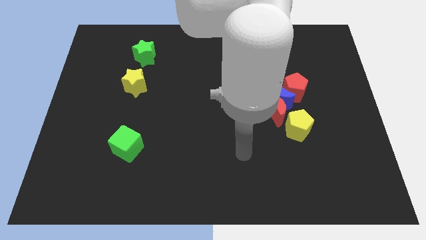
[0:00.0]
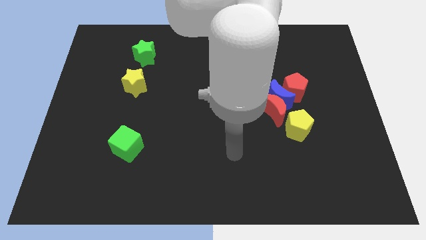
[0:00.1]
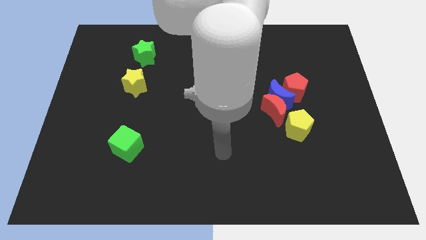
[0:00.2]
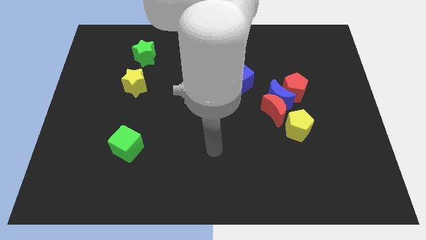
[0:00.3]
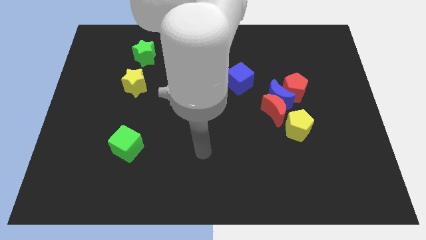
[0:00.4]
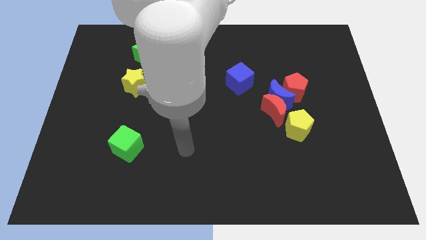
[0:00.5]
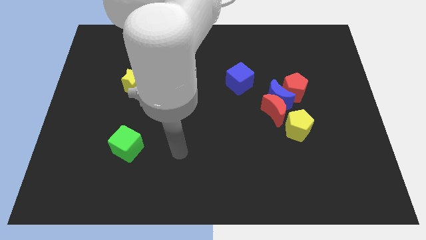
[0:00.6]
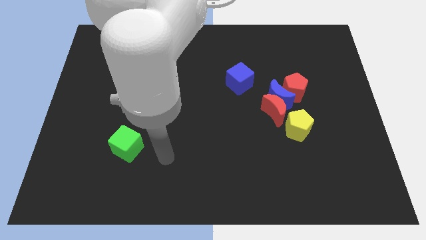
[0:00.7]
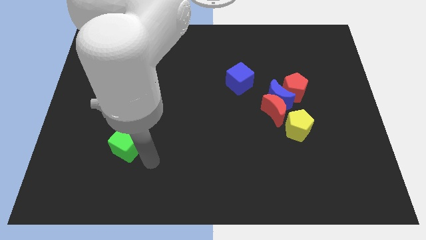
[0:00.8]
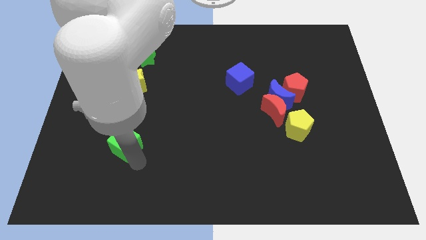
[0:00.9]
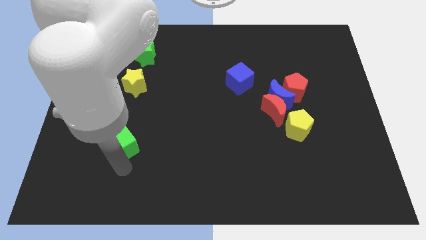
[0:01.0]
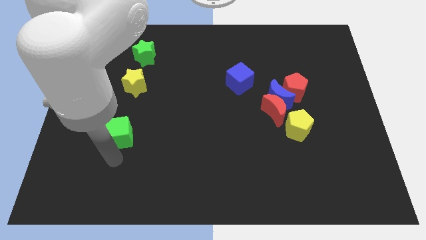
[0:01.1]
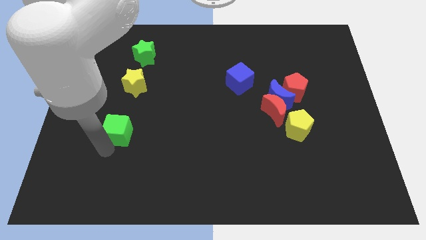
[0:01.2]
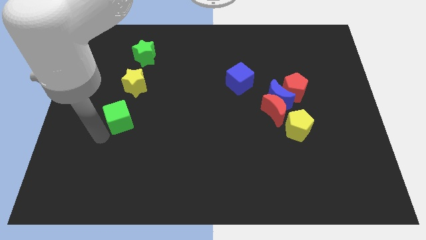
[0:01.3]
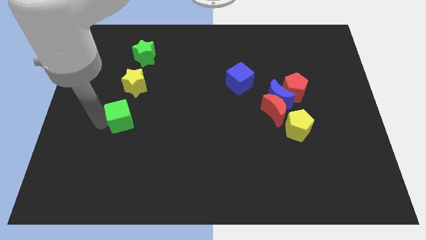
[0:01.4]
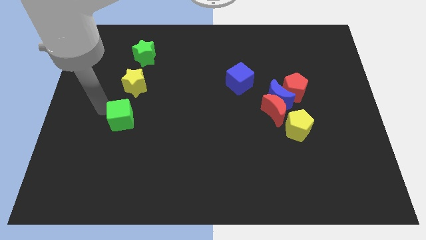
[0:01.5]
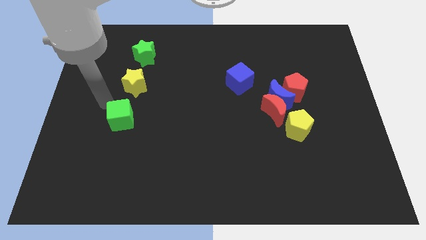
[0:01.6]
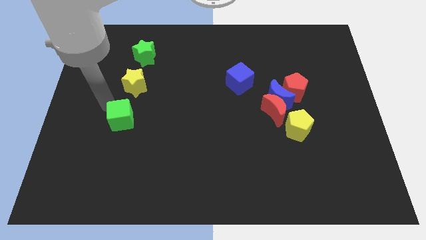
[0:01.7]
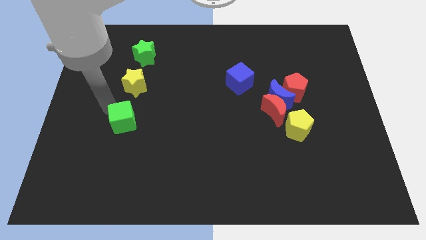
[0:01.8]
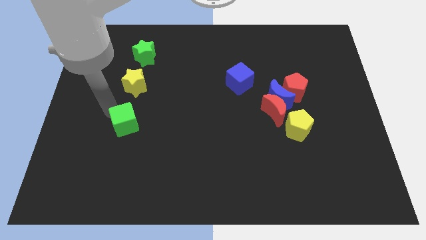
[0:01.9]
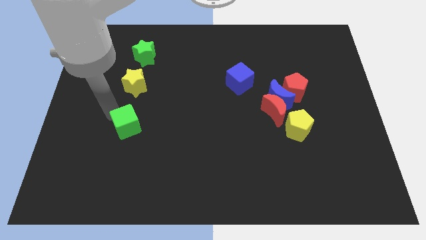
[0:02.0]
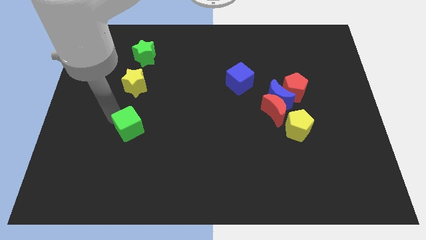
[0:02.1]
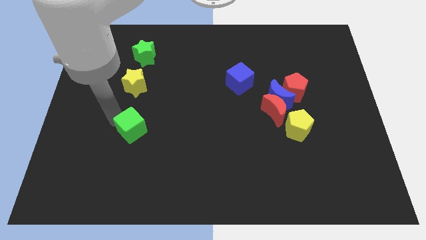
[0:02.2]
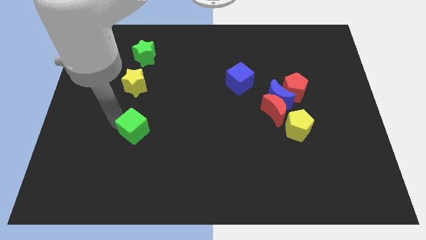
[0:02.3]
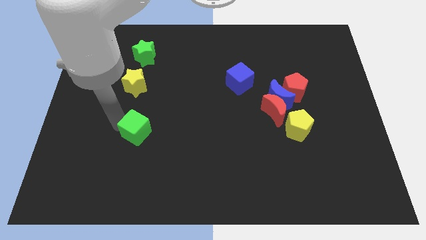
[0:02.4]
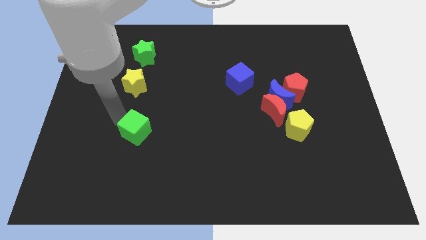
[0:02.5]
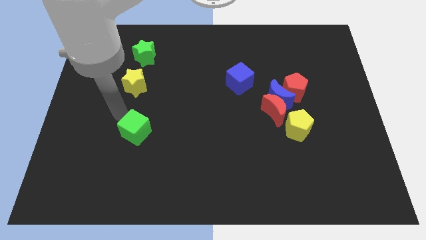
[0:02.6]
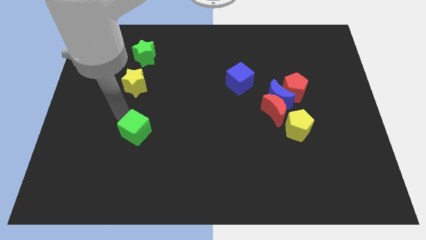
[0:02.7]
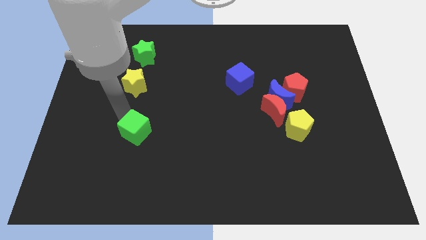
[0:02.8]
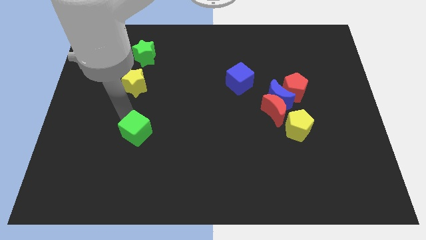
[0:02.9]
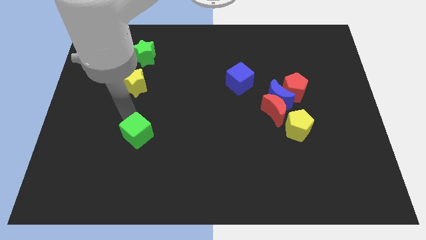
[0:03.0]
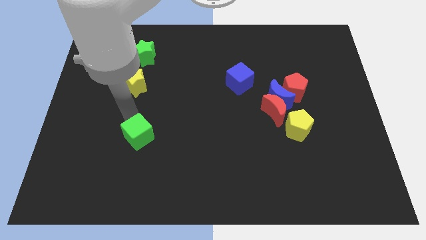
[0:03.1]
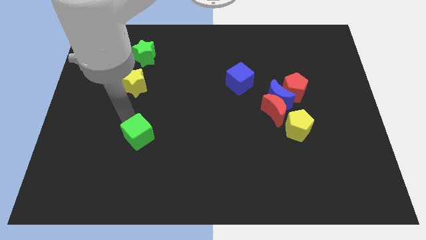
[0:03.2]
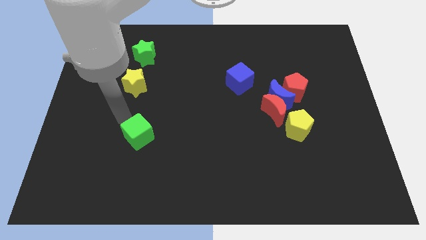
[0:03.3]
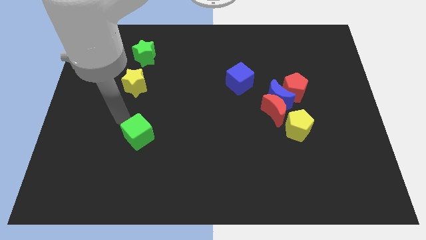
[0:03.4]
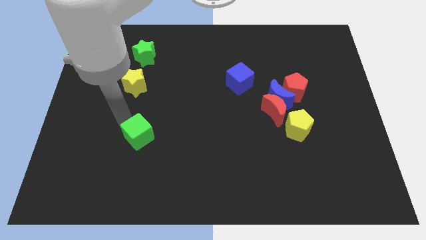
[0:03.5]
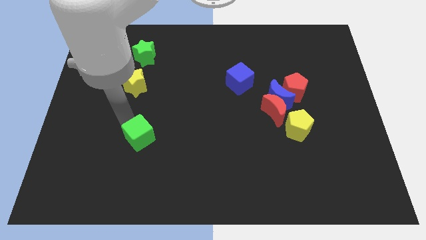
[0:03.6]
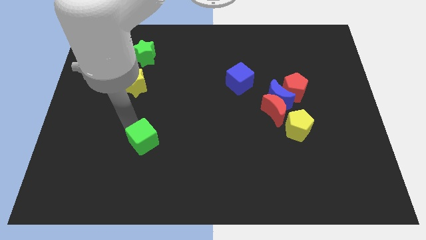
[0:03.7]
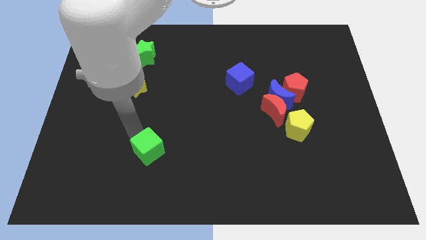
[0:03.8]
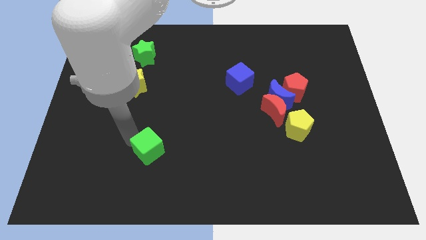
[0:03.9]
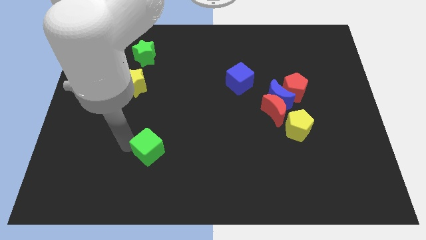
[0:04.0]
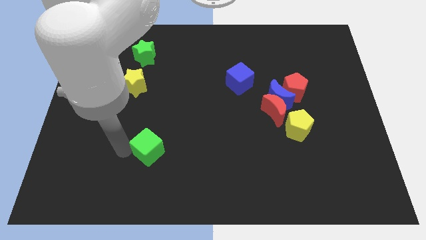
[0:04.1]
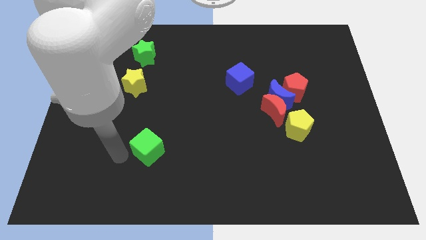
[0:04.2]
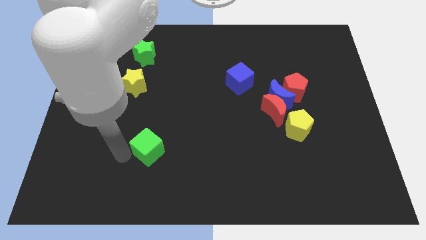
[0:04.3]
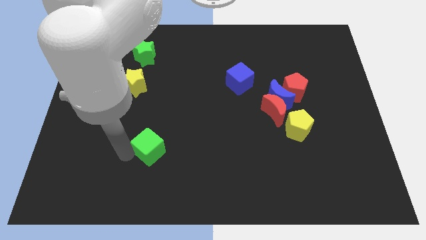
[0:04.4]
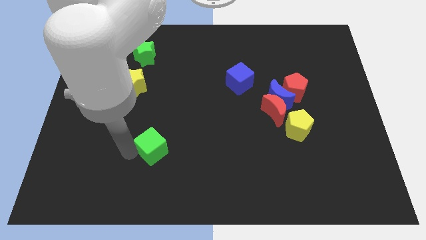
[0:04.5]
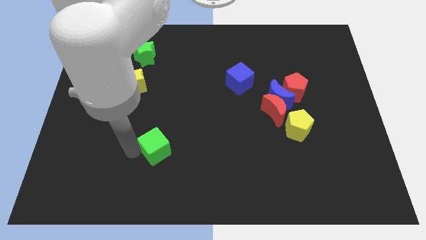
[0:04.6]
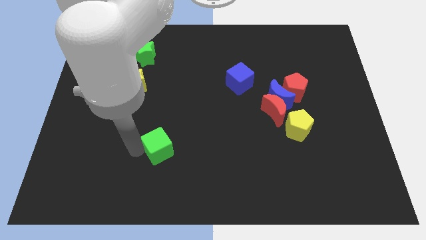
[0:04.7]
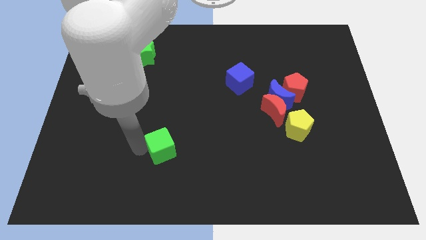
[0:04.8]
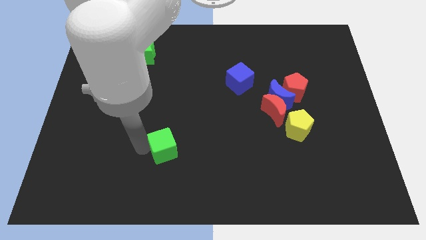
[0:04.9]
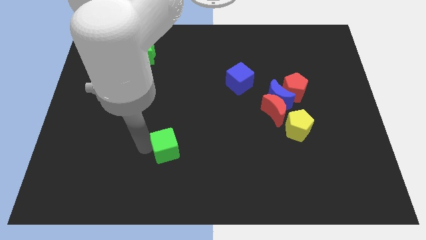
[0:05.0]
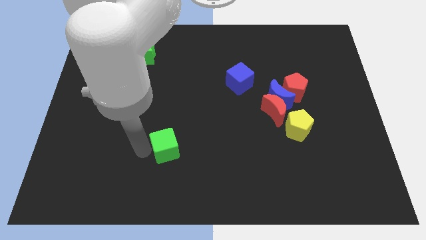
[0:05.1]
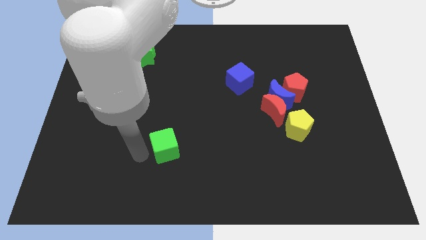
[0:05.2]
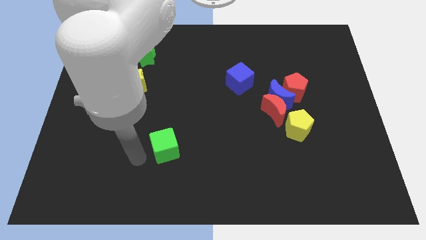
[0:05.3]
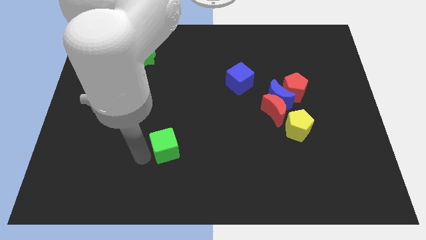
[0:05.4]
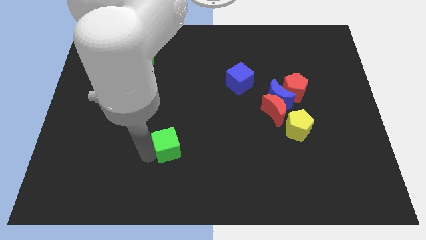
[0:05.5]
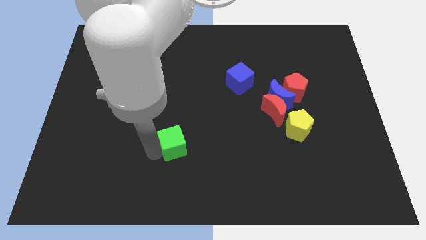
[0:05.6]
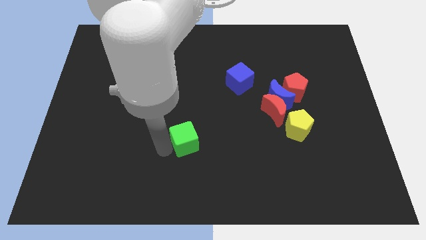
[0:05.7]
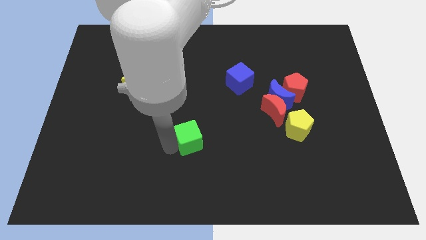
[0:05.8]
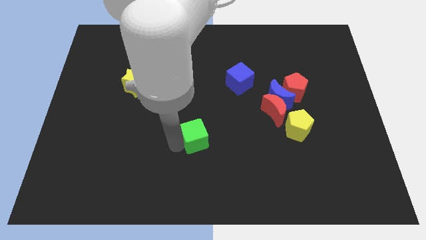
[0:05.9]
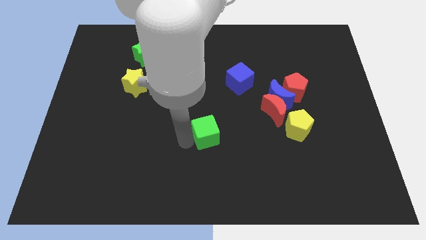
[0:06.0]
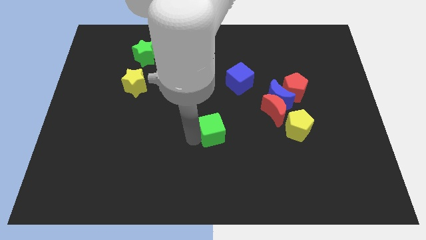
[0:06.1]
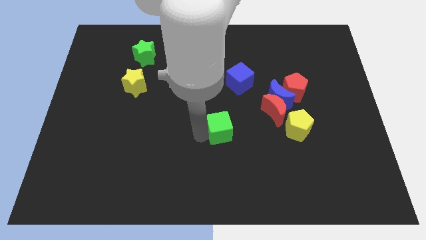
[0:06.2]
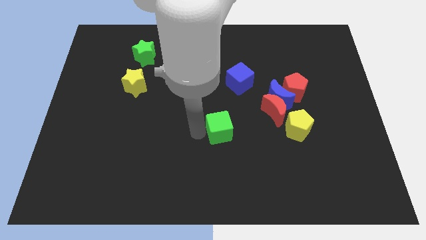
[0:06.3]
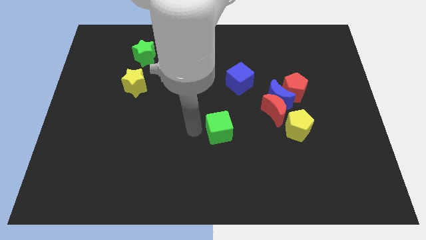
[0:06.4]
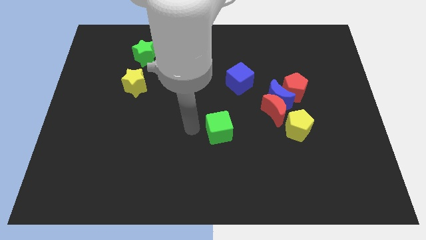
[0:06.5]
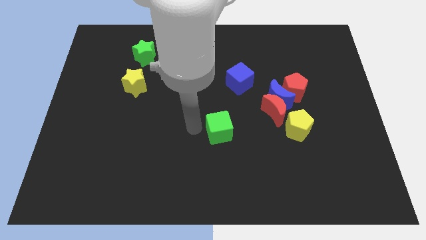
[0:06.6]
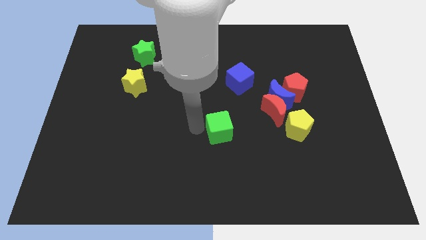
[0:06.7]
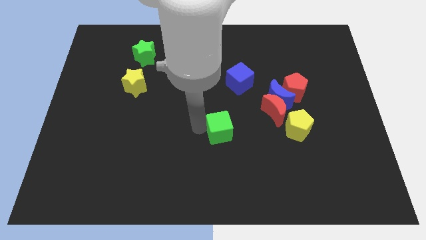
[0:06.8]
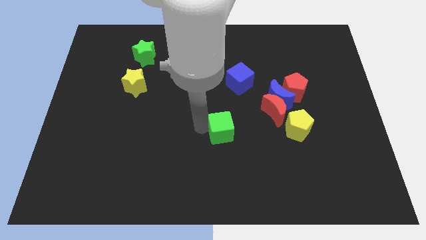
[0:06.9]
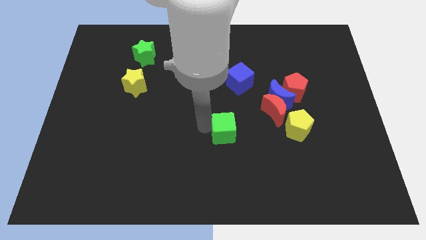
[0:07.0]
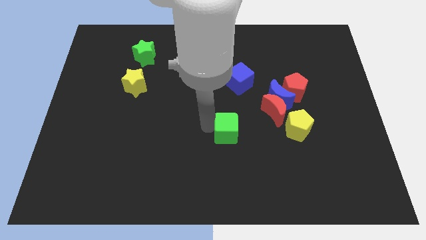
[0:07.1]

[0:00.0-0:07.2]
put the green cube left of the yellow pentagon
